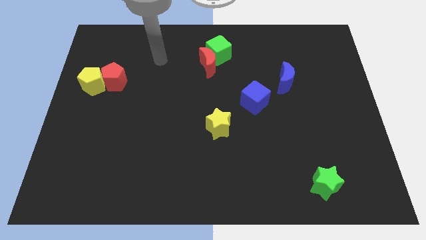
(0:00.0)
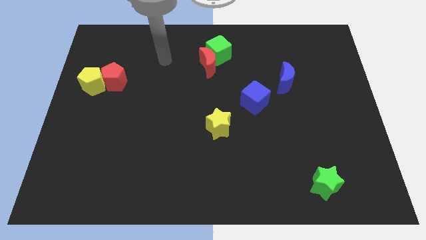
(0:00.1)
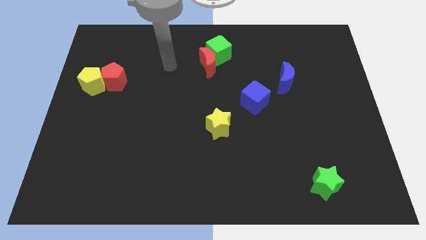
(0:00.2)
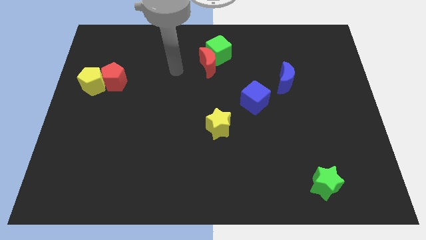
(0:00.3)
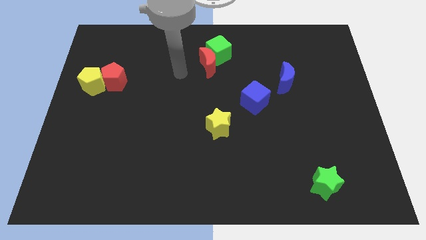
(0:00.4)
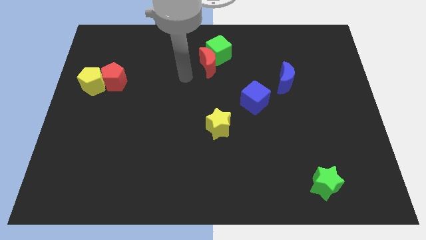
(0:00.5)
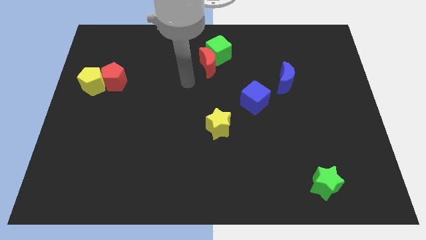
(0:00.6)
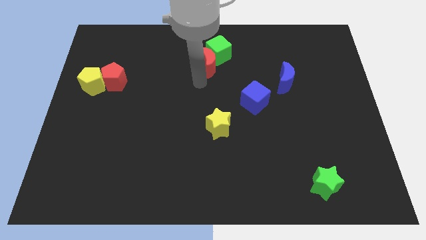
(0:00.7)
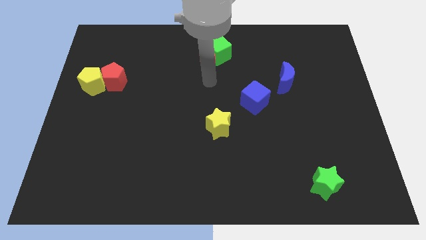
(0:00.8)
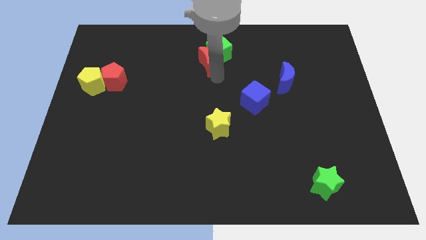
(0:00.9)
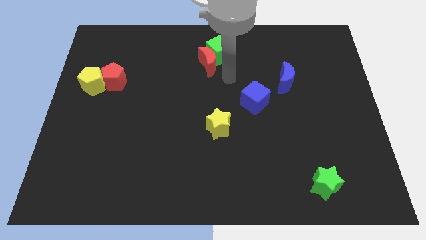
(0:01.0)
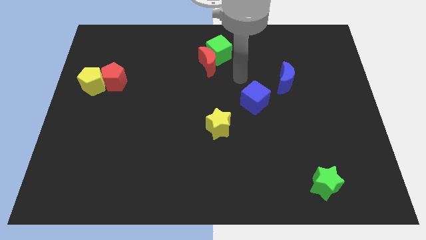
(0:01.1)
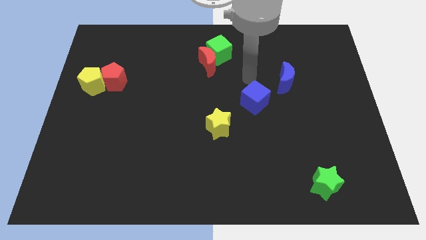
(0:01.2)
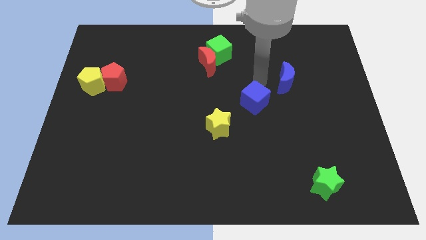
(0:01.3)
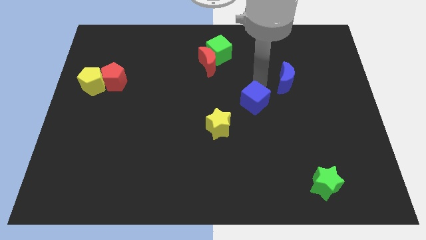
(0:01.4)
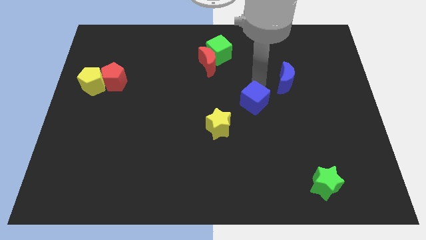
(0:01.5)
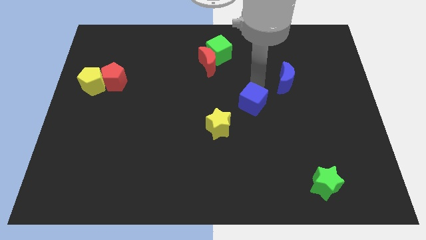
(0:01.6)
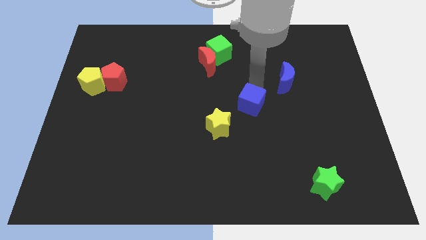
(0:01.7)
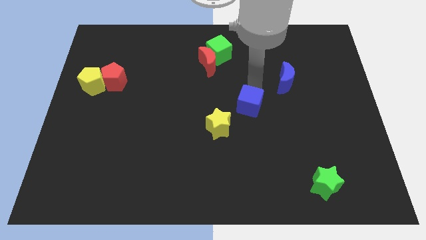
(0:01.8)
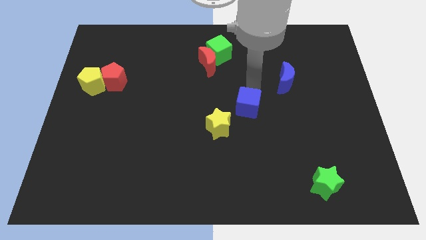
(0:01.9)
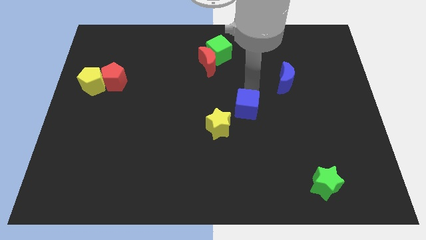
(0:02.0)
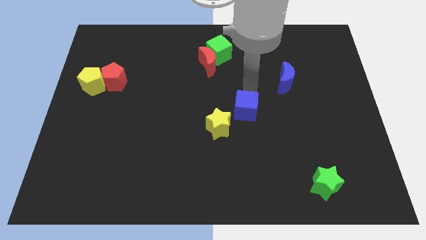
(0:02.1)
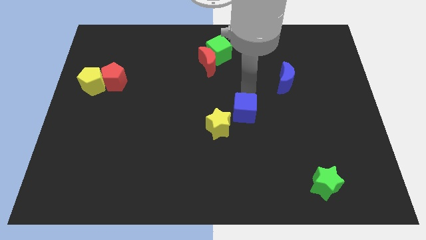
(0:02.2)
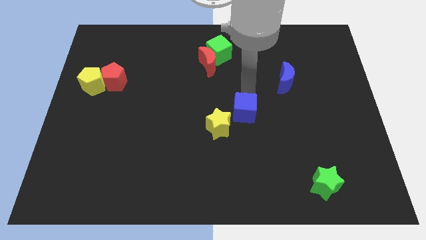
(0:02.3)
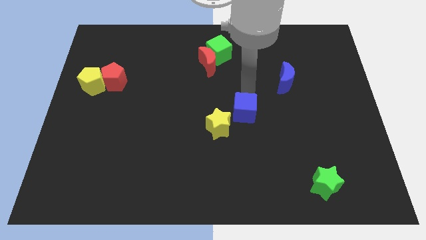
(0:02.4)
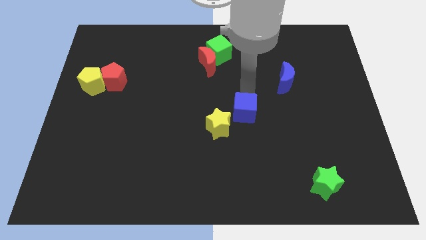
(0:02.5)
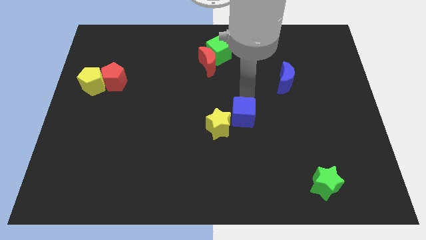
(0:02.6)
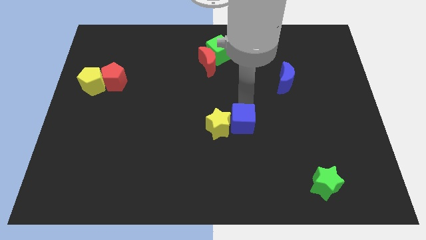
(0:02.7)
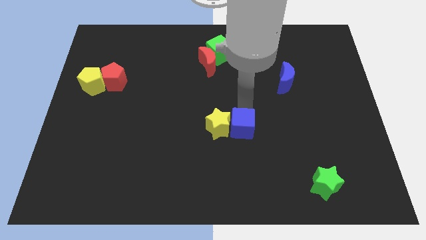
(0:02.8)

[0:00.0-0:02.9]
slightly push the blue cube down and left diagonally

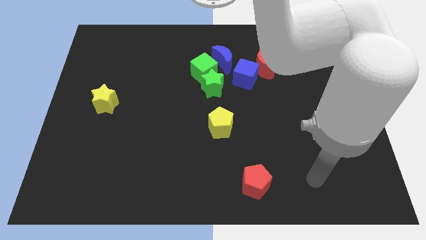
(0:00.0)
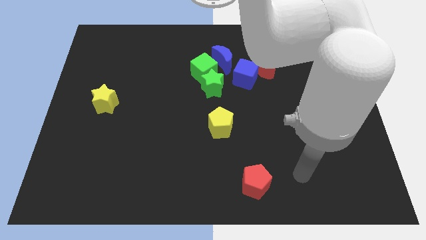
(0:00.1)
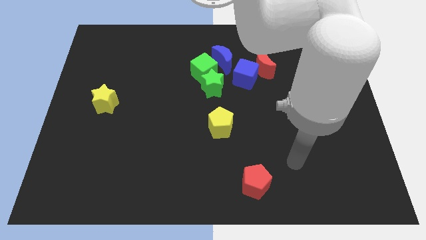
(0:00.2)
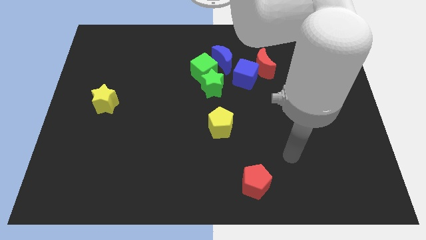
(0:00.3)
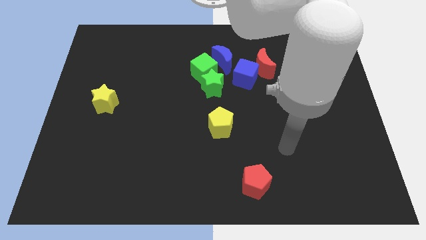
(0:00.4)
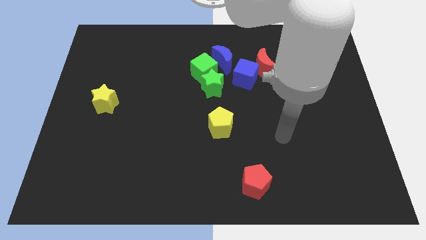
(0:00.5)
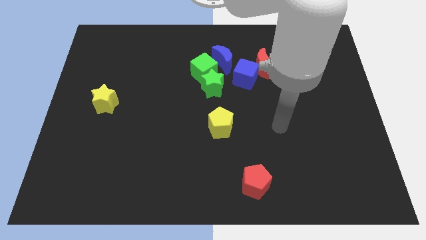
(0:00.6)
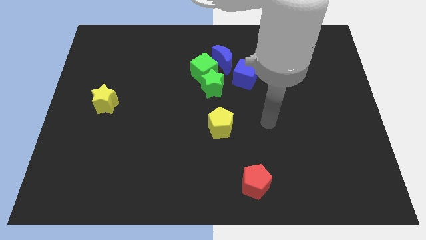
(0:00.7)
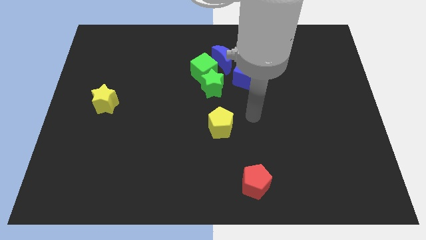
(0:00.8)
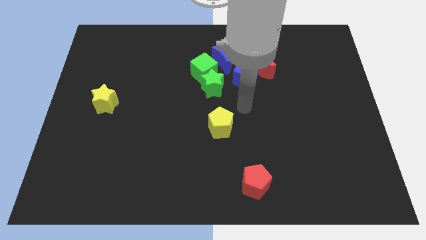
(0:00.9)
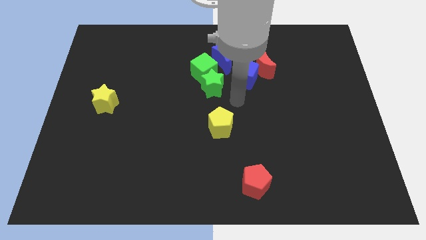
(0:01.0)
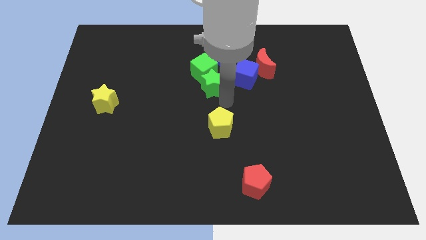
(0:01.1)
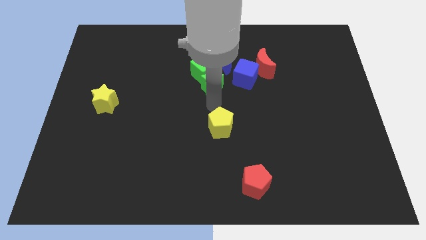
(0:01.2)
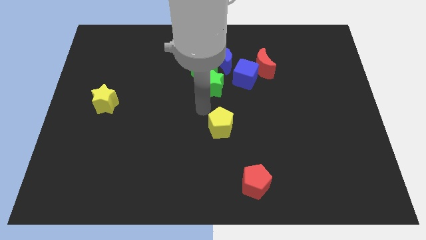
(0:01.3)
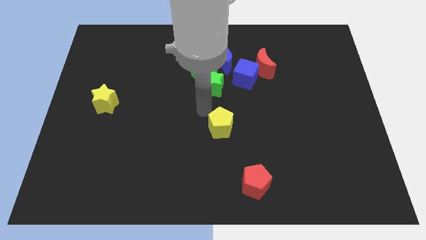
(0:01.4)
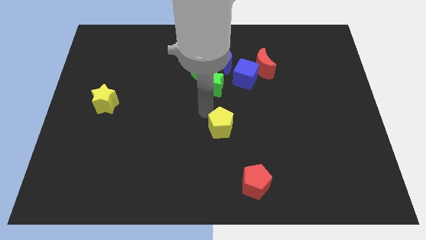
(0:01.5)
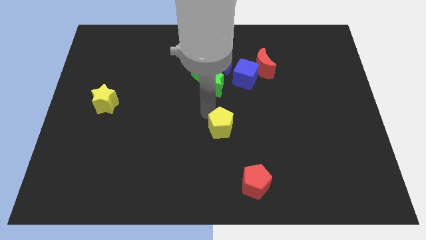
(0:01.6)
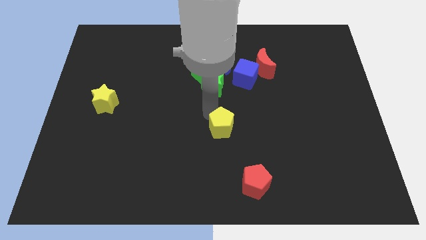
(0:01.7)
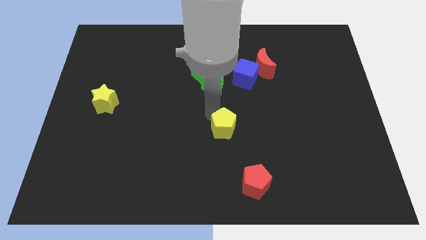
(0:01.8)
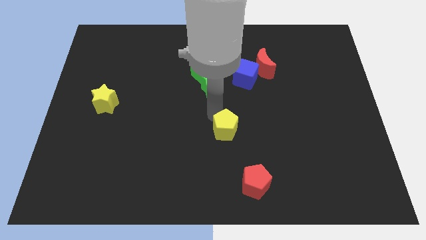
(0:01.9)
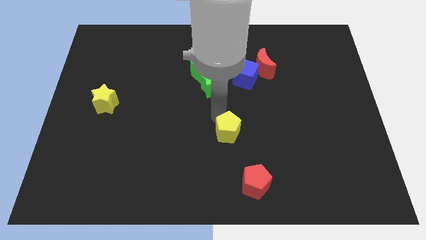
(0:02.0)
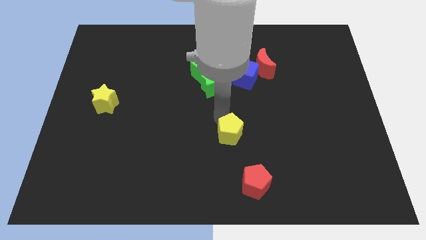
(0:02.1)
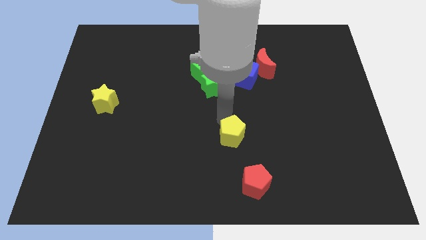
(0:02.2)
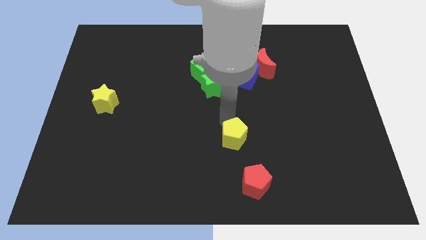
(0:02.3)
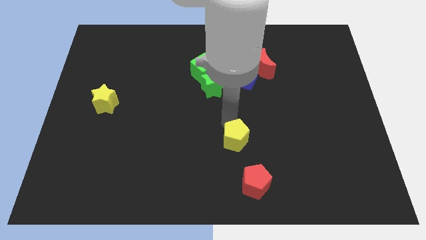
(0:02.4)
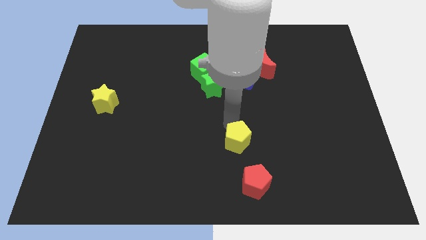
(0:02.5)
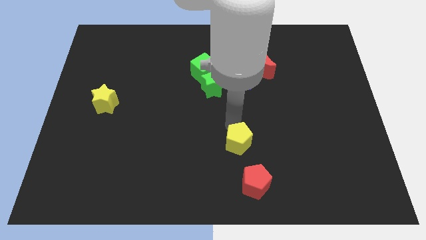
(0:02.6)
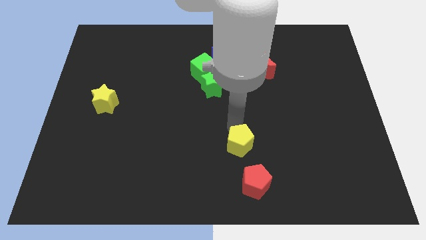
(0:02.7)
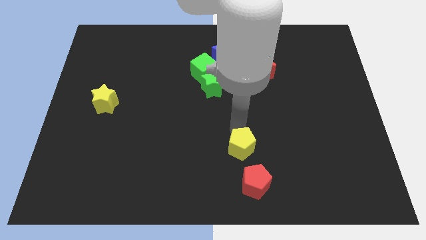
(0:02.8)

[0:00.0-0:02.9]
slide the yellow pentagon downwards and to the right diagonally a little

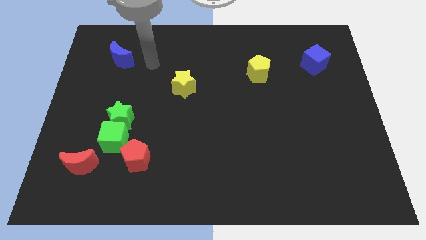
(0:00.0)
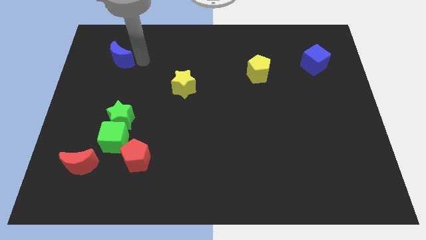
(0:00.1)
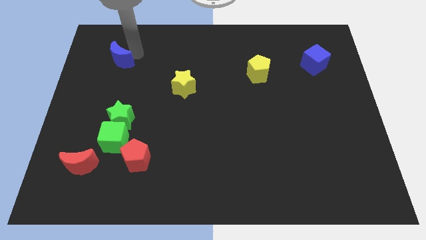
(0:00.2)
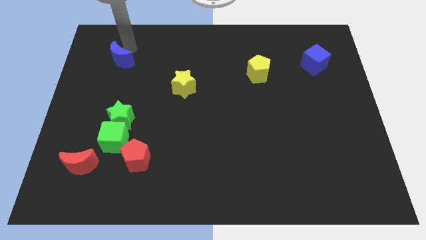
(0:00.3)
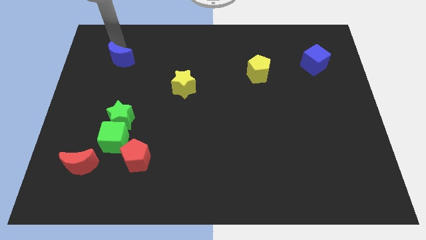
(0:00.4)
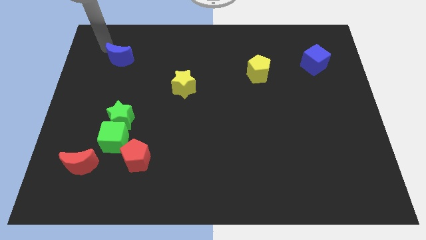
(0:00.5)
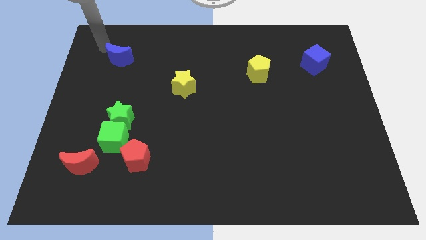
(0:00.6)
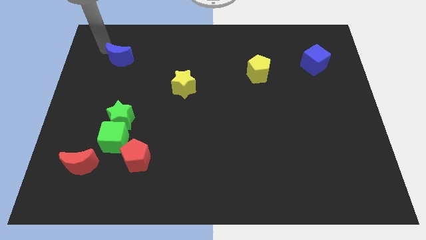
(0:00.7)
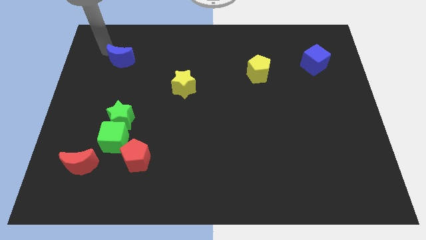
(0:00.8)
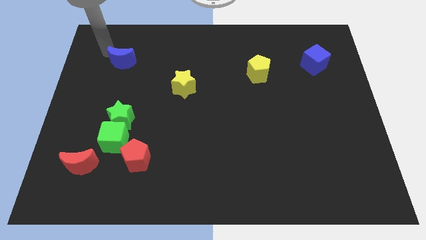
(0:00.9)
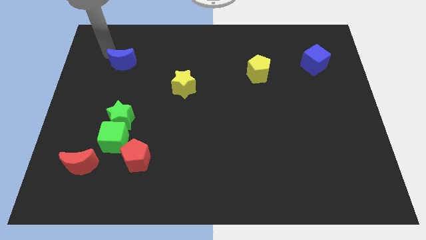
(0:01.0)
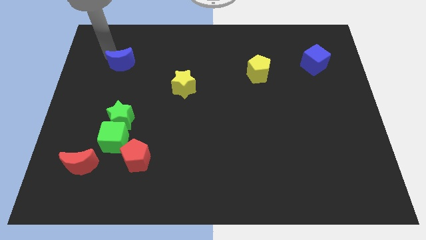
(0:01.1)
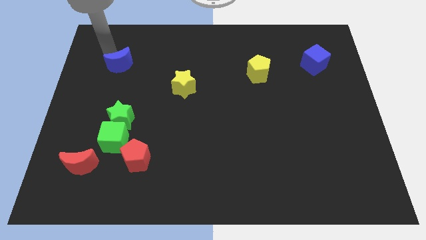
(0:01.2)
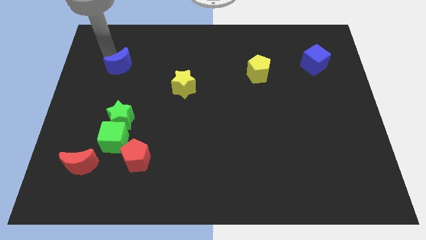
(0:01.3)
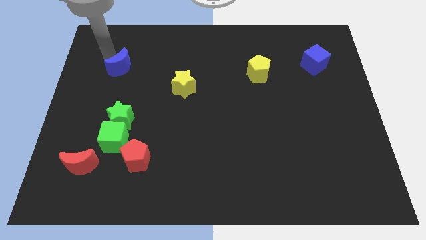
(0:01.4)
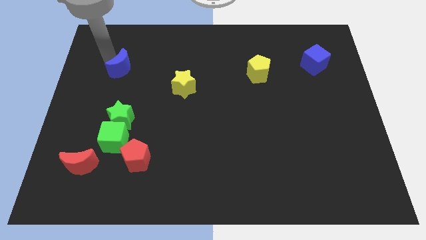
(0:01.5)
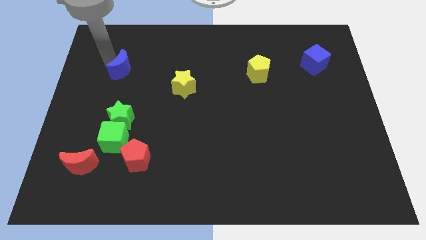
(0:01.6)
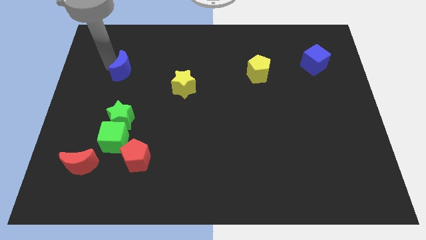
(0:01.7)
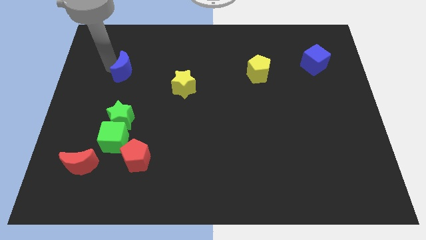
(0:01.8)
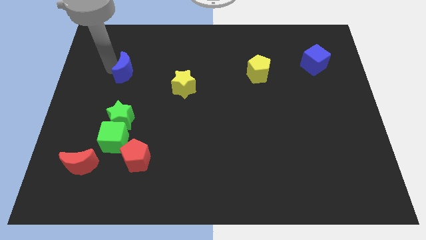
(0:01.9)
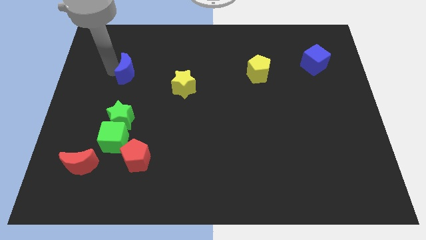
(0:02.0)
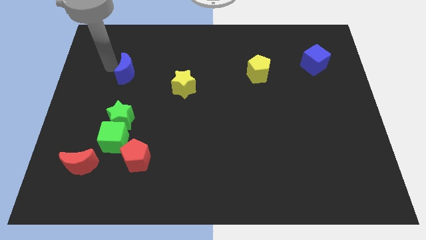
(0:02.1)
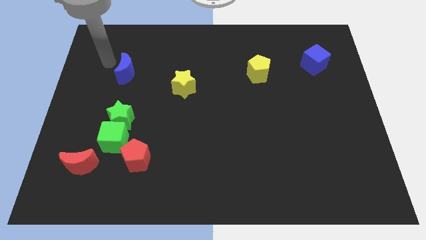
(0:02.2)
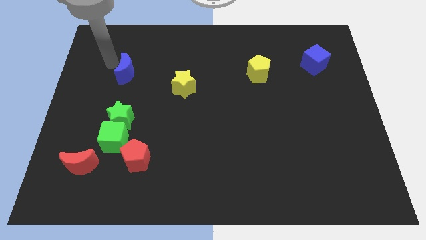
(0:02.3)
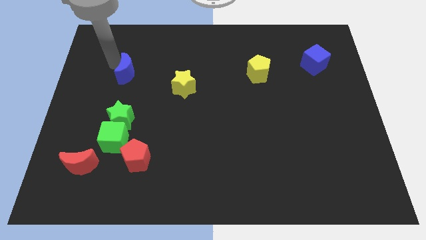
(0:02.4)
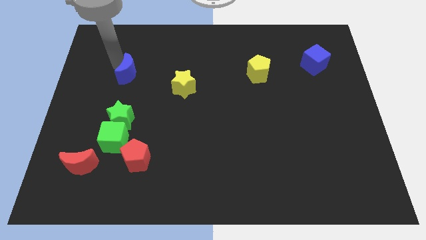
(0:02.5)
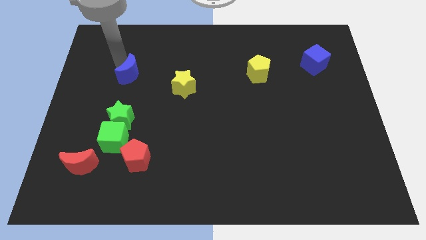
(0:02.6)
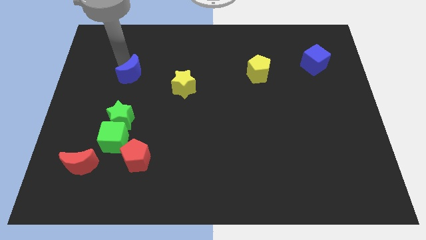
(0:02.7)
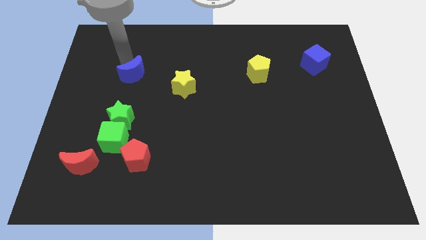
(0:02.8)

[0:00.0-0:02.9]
slightly move the blue moon down and right
